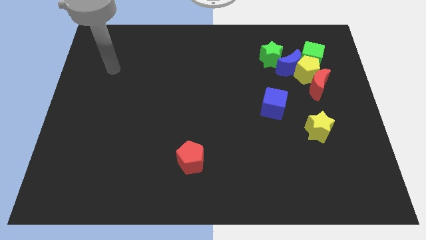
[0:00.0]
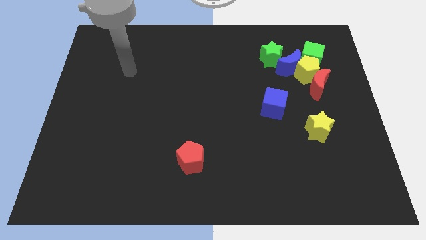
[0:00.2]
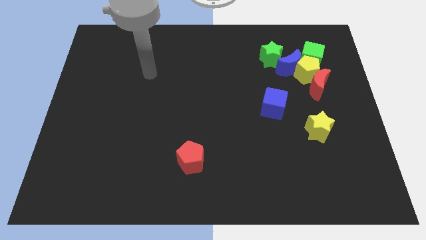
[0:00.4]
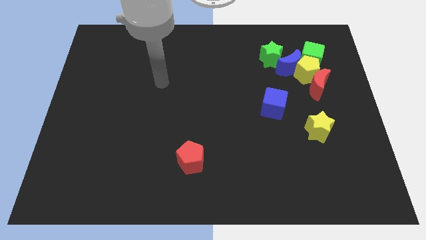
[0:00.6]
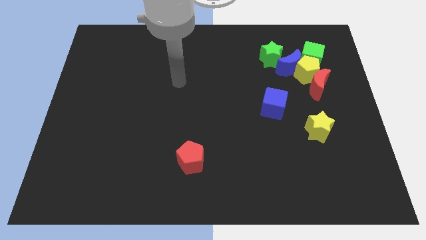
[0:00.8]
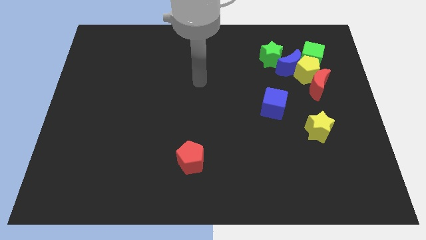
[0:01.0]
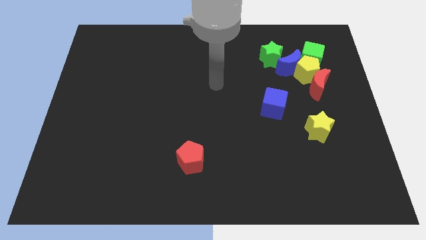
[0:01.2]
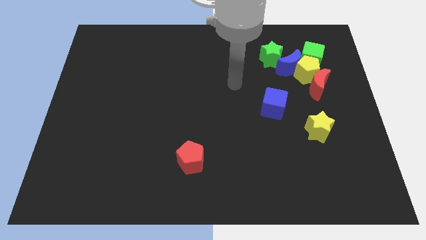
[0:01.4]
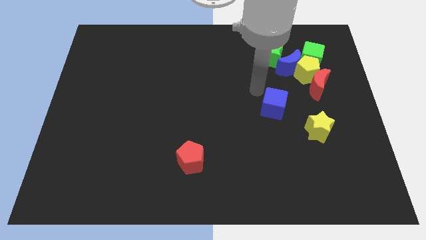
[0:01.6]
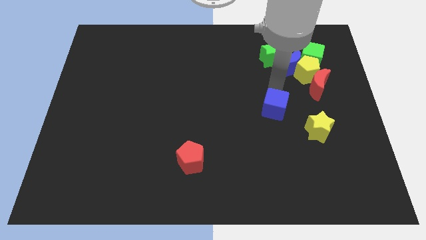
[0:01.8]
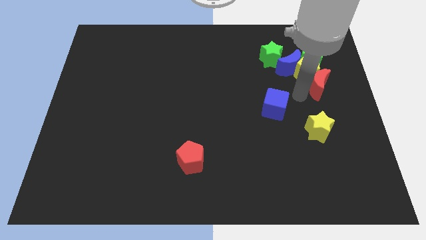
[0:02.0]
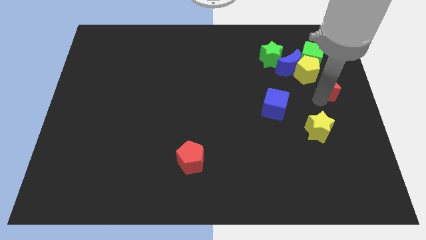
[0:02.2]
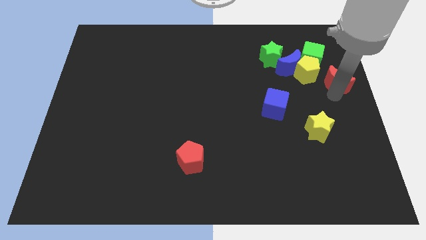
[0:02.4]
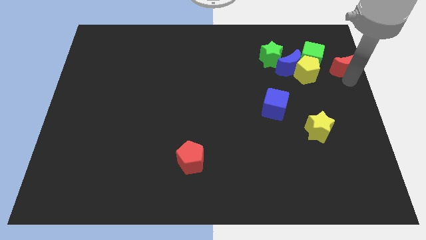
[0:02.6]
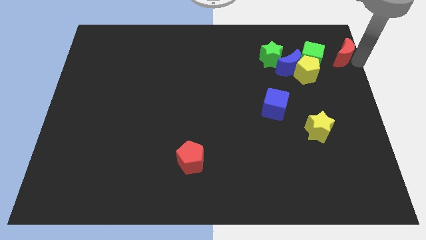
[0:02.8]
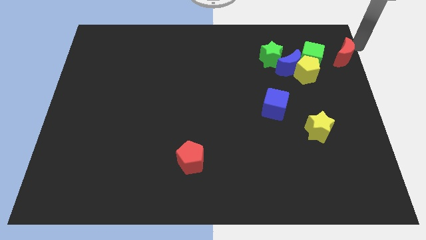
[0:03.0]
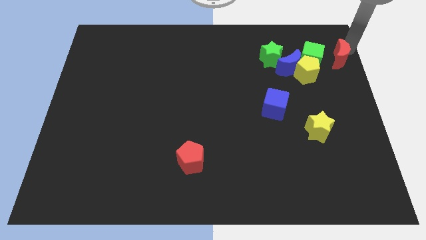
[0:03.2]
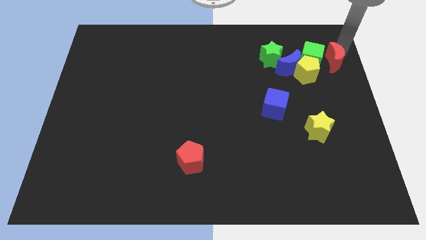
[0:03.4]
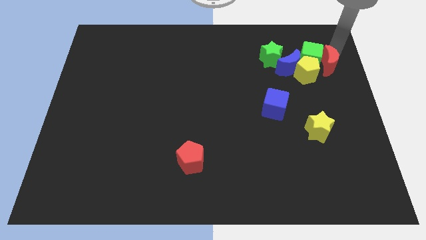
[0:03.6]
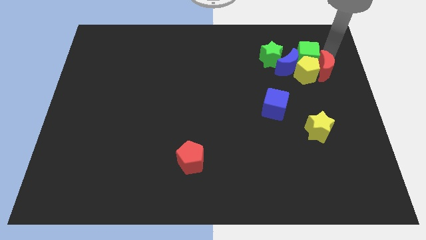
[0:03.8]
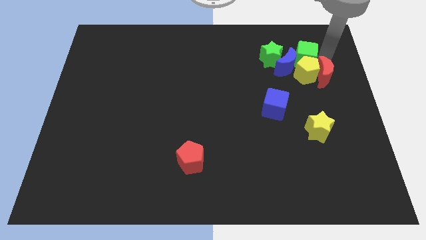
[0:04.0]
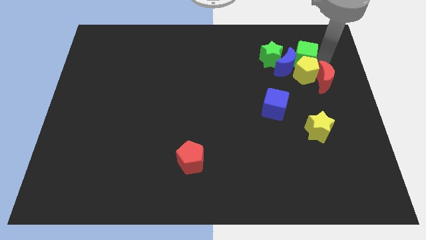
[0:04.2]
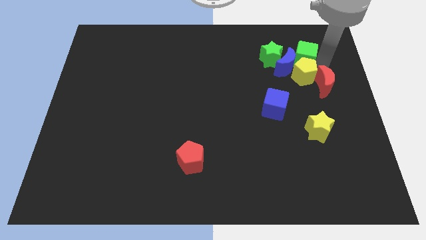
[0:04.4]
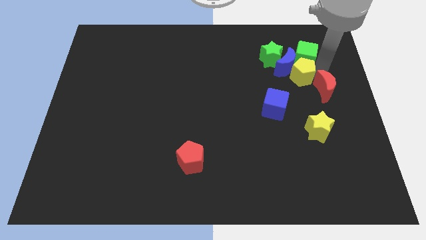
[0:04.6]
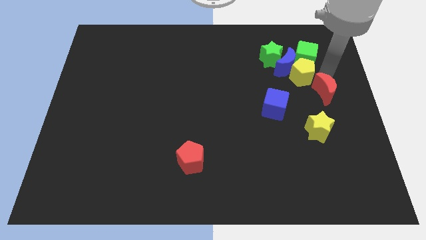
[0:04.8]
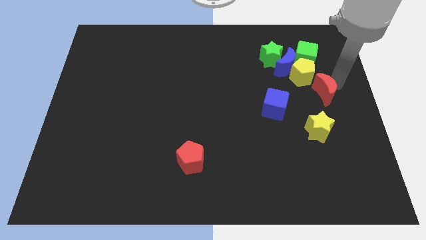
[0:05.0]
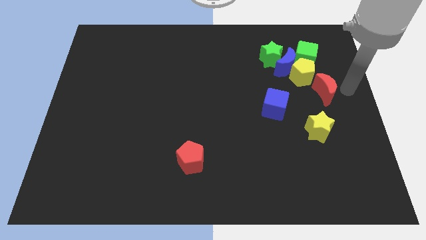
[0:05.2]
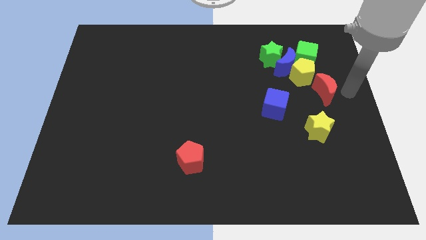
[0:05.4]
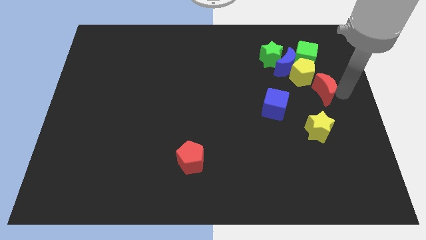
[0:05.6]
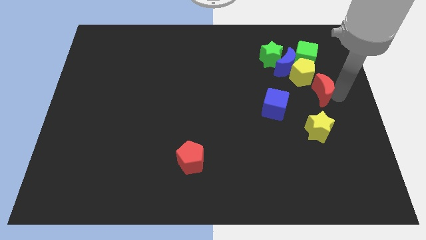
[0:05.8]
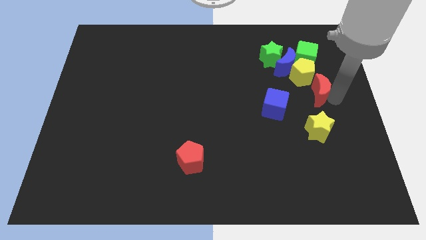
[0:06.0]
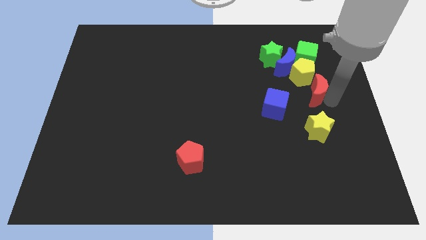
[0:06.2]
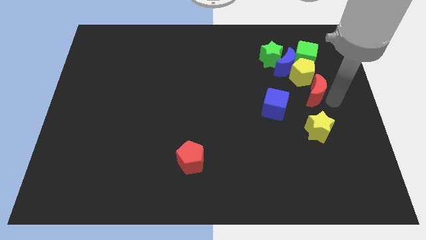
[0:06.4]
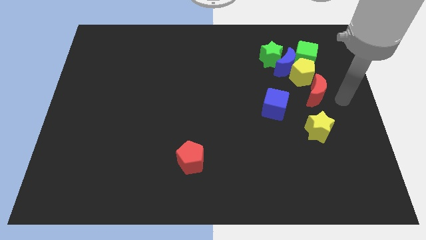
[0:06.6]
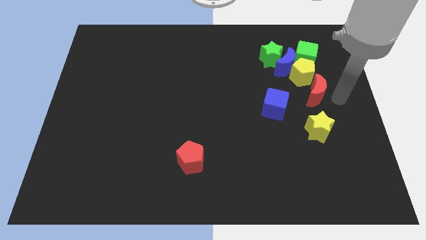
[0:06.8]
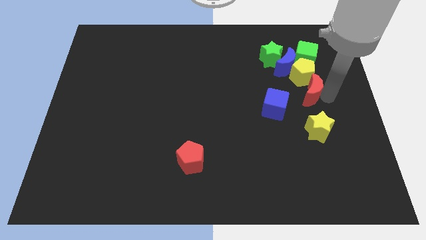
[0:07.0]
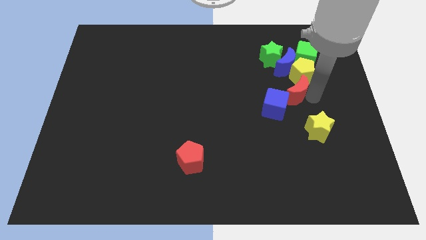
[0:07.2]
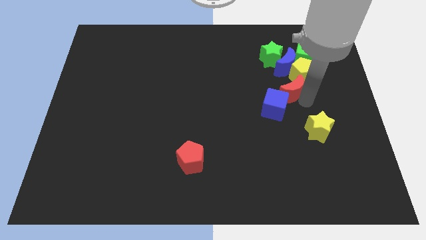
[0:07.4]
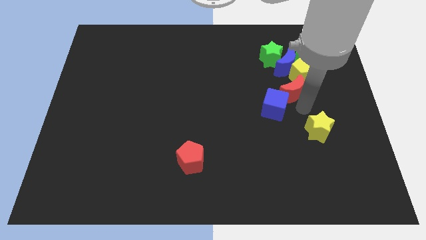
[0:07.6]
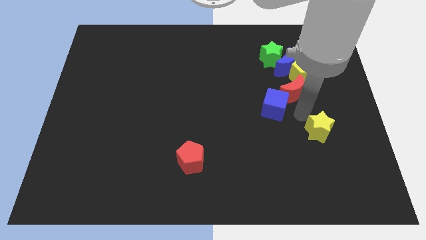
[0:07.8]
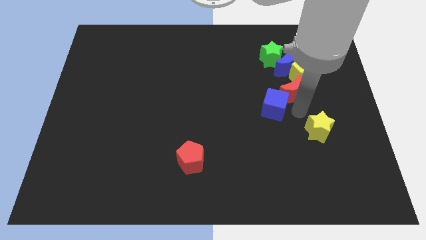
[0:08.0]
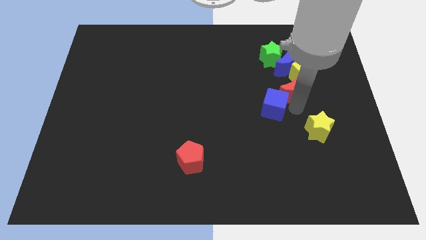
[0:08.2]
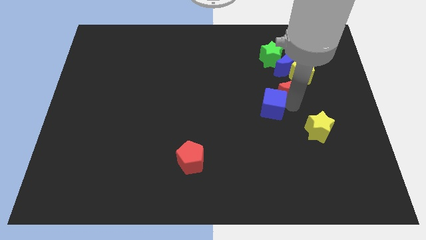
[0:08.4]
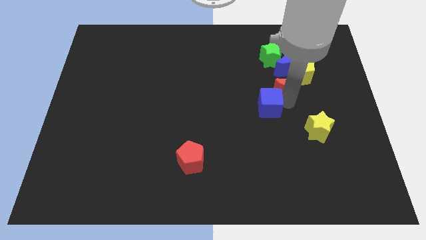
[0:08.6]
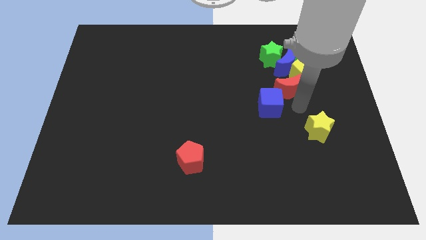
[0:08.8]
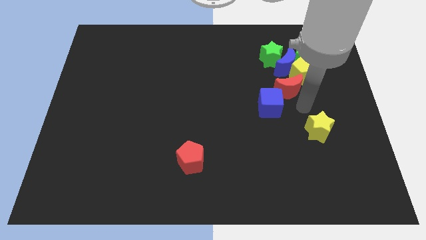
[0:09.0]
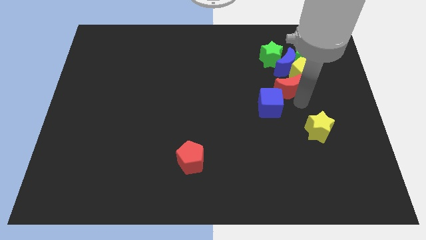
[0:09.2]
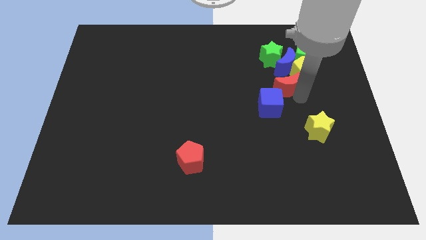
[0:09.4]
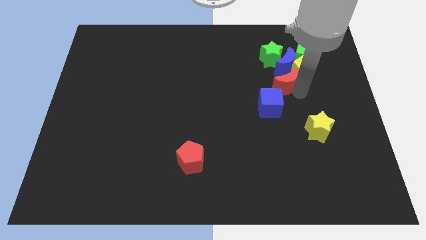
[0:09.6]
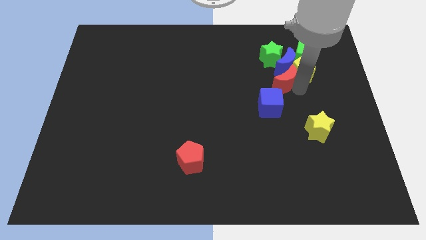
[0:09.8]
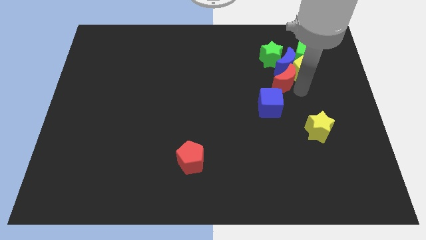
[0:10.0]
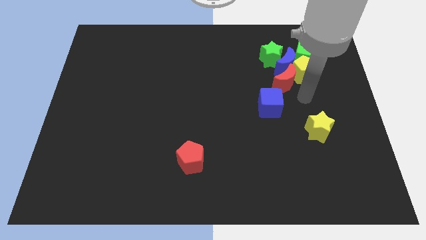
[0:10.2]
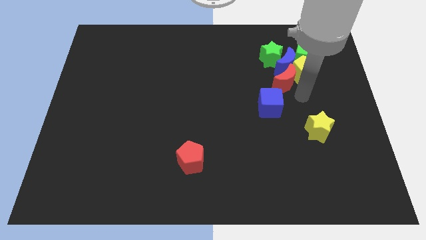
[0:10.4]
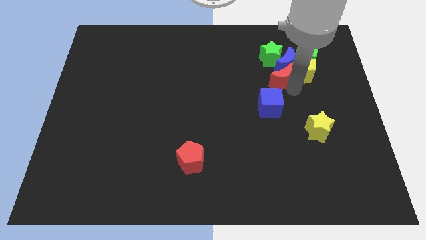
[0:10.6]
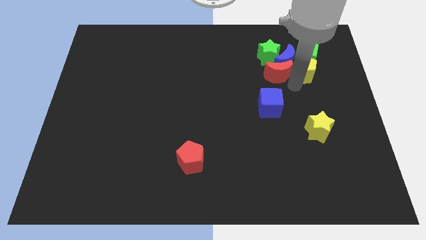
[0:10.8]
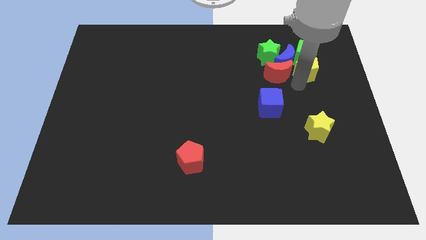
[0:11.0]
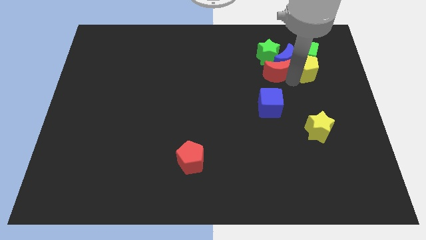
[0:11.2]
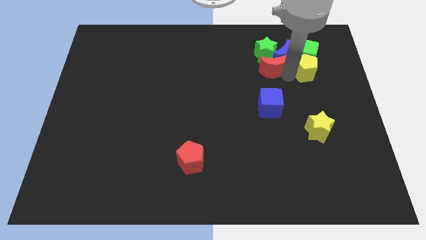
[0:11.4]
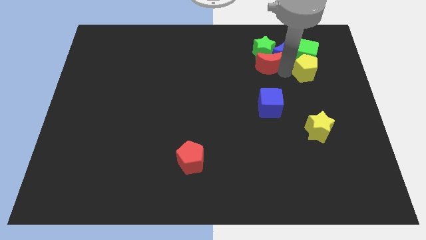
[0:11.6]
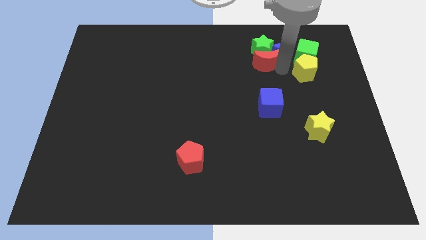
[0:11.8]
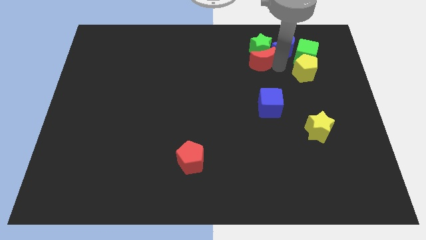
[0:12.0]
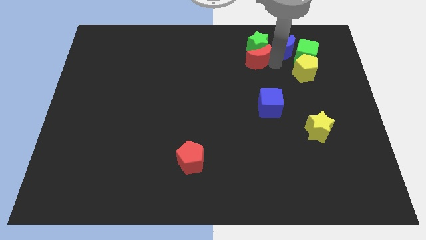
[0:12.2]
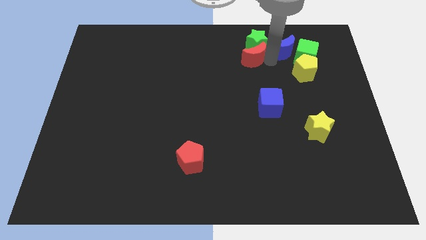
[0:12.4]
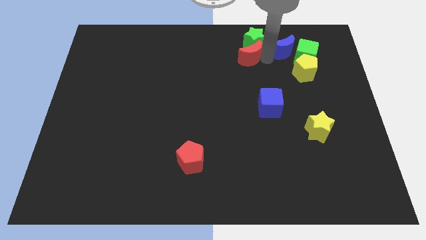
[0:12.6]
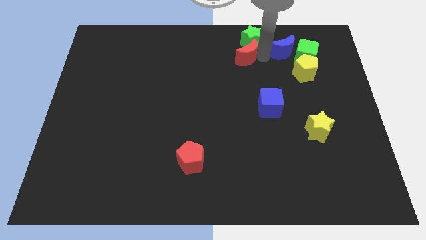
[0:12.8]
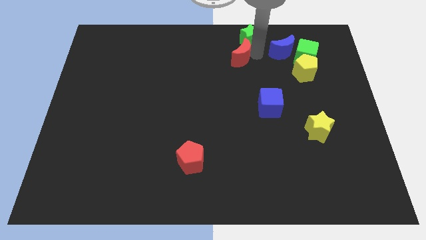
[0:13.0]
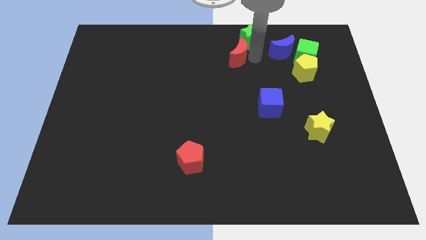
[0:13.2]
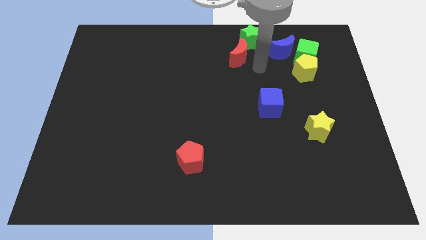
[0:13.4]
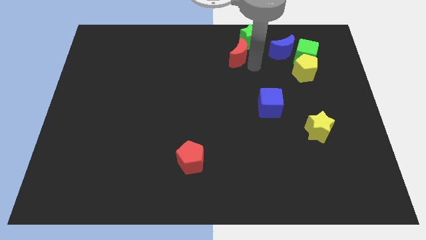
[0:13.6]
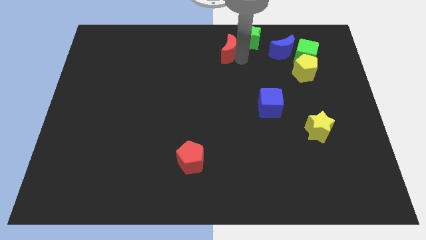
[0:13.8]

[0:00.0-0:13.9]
push the red moon to the towards your base

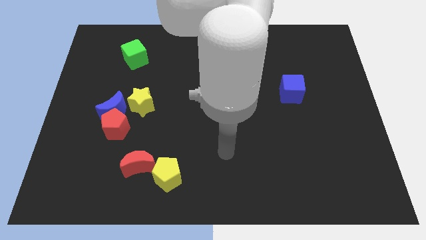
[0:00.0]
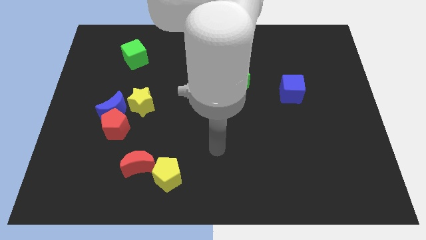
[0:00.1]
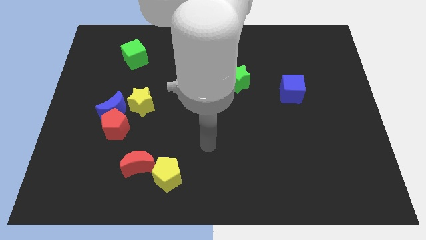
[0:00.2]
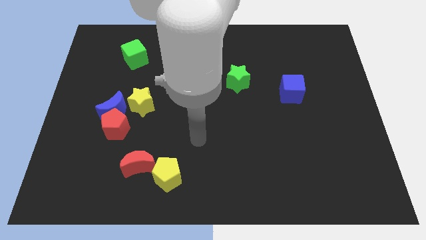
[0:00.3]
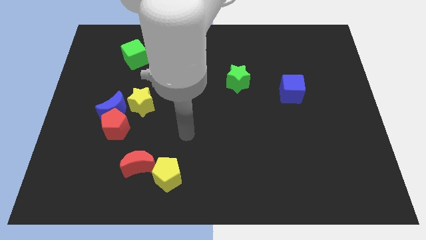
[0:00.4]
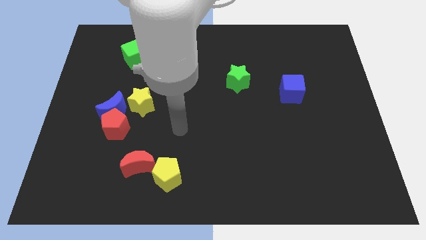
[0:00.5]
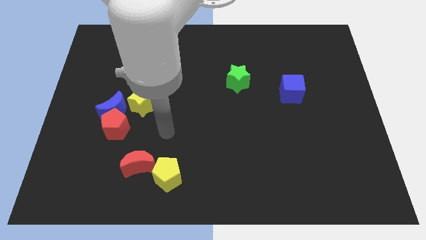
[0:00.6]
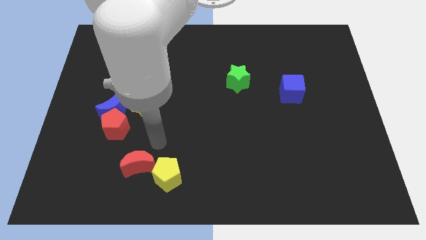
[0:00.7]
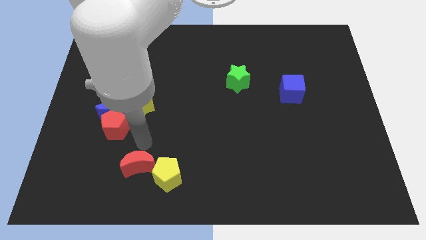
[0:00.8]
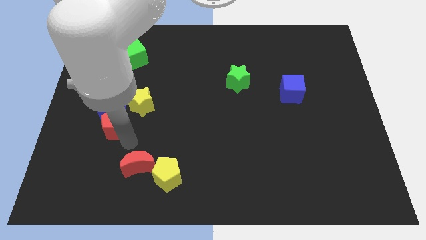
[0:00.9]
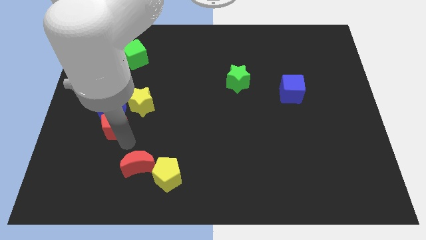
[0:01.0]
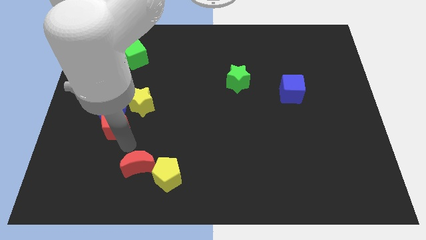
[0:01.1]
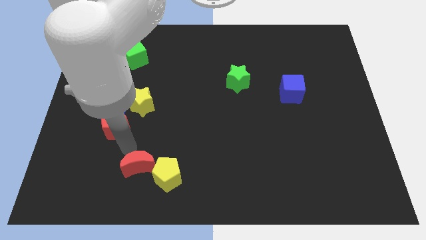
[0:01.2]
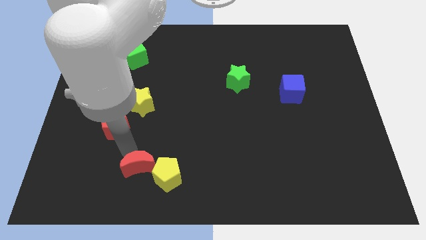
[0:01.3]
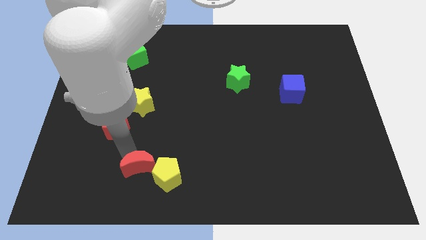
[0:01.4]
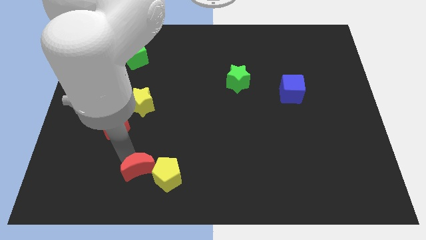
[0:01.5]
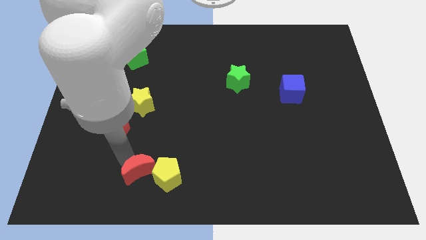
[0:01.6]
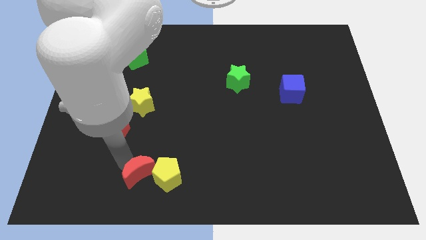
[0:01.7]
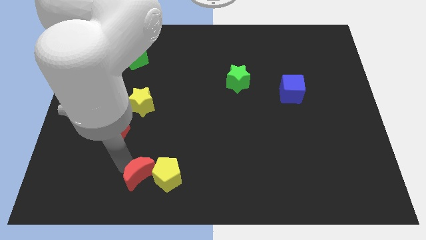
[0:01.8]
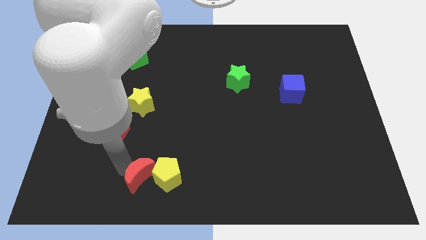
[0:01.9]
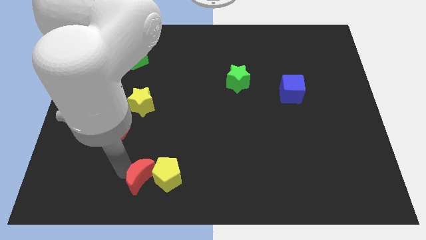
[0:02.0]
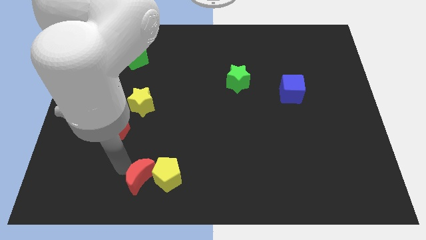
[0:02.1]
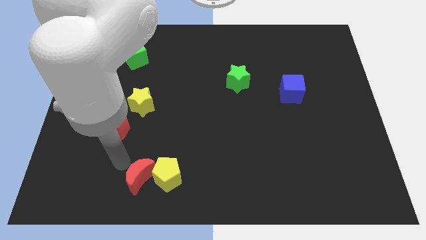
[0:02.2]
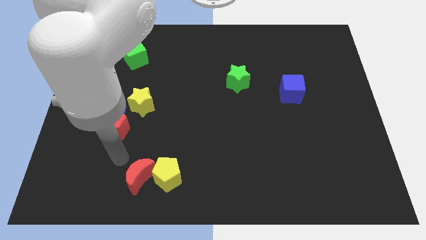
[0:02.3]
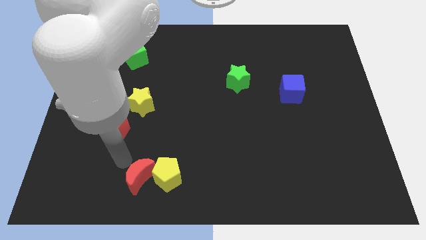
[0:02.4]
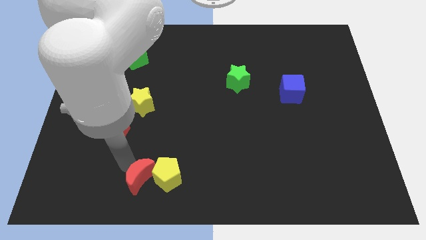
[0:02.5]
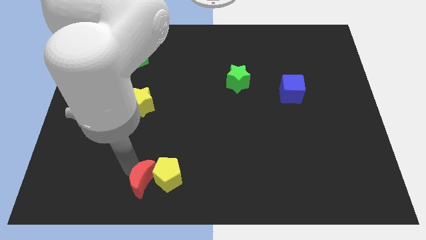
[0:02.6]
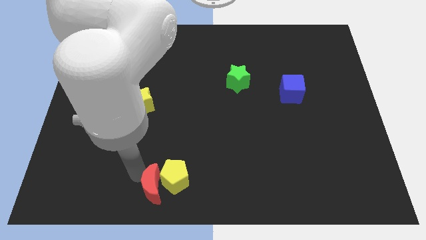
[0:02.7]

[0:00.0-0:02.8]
slide the red moon to the bottom
